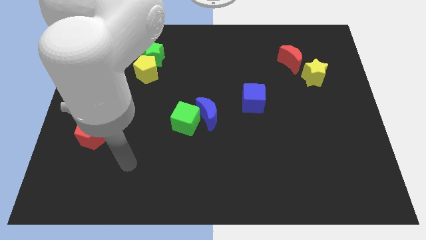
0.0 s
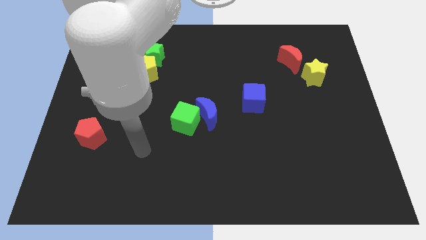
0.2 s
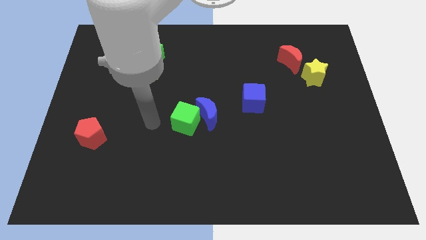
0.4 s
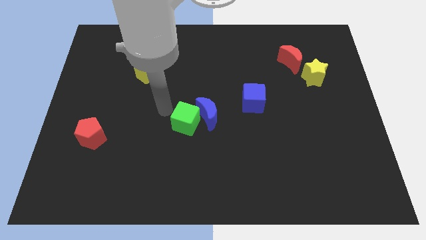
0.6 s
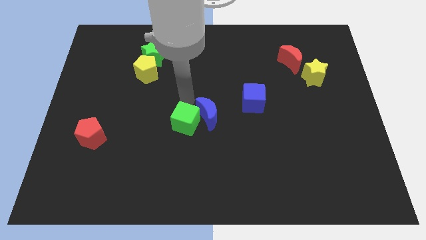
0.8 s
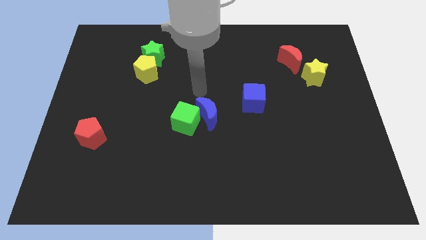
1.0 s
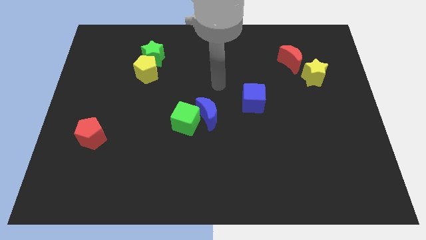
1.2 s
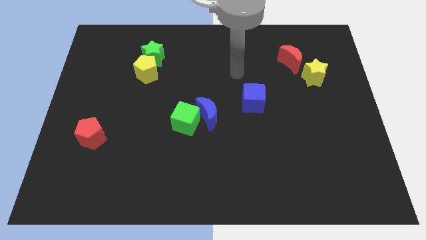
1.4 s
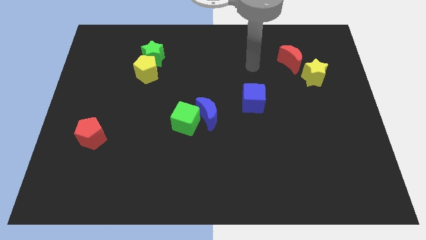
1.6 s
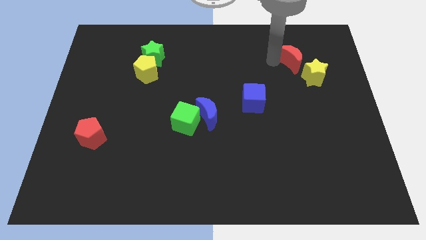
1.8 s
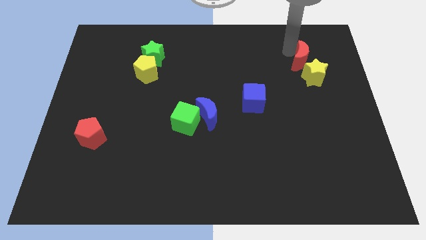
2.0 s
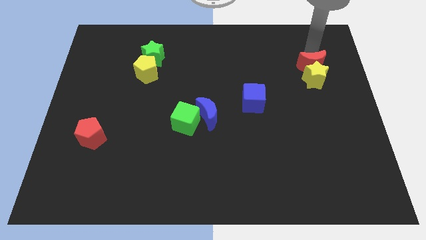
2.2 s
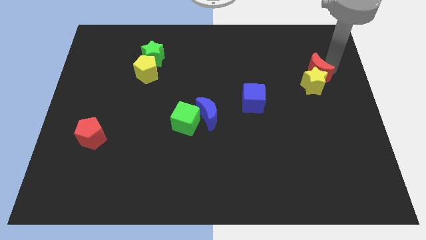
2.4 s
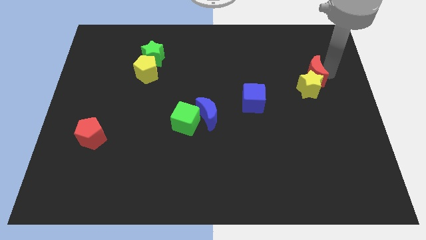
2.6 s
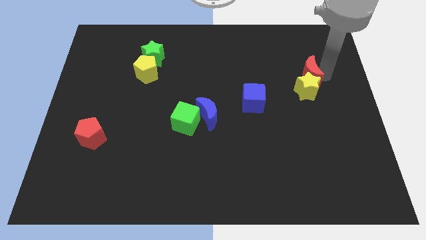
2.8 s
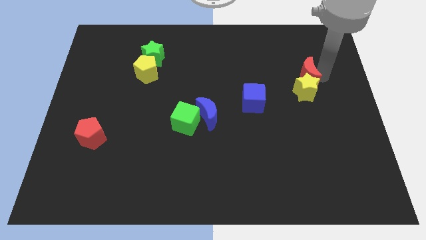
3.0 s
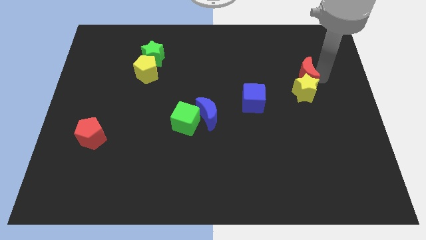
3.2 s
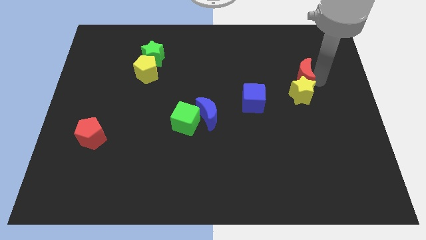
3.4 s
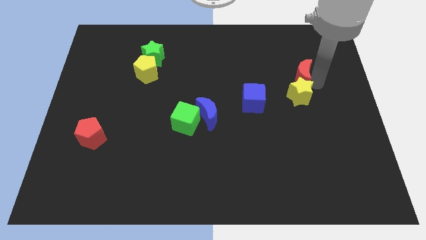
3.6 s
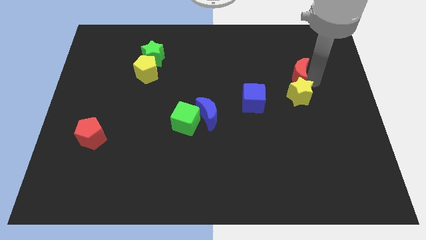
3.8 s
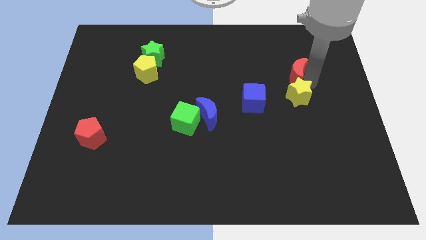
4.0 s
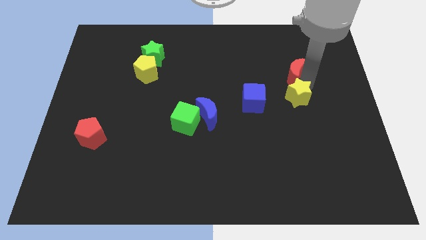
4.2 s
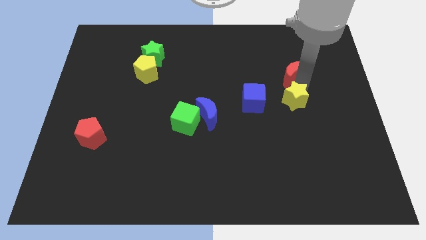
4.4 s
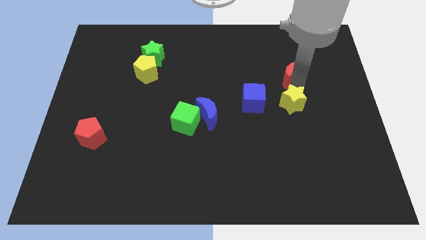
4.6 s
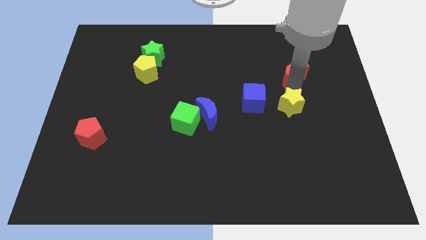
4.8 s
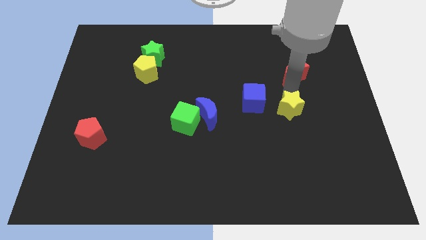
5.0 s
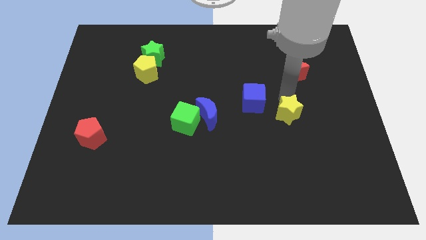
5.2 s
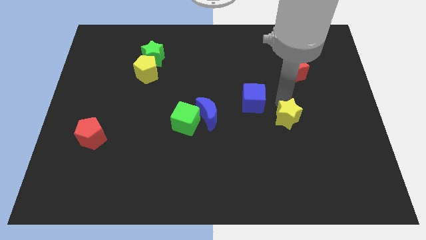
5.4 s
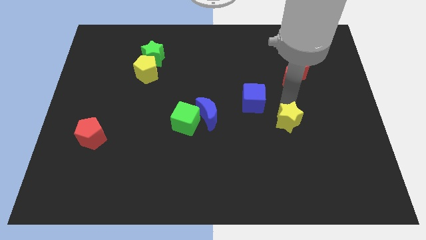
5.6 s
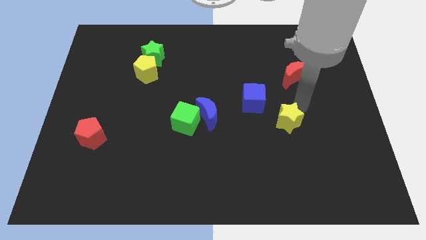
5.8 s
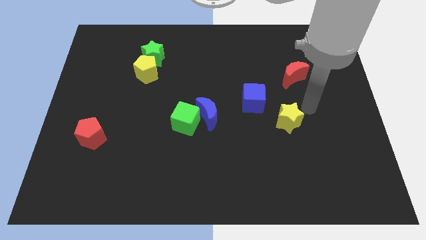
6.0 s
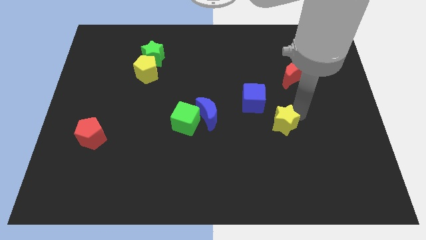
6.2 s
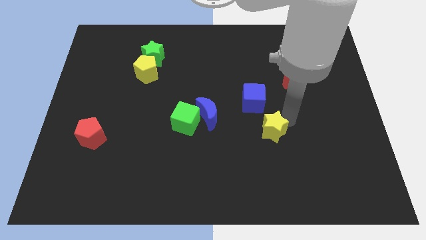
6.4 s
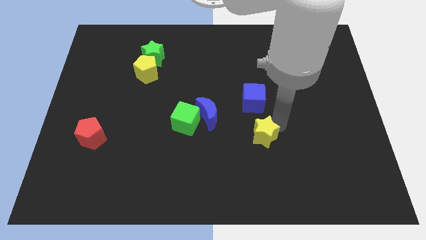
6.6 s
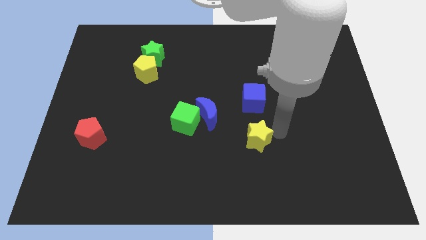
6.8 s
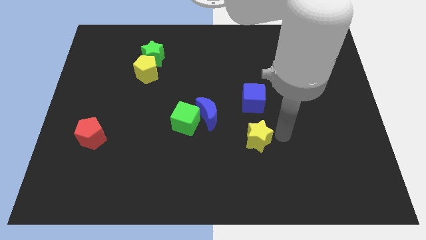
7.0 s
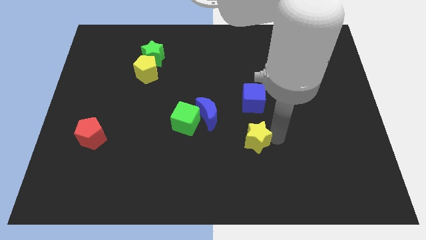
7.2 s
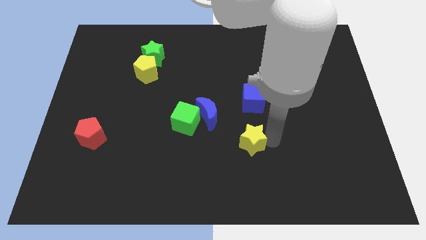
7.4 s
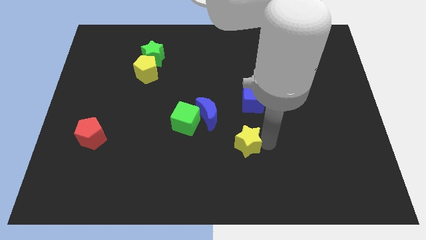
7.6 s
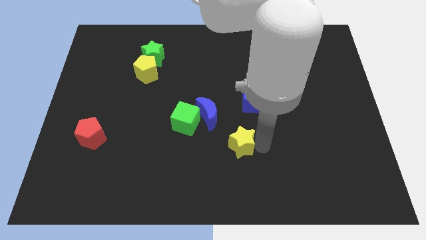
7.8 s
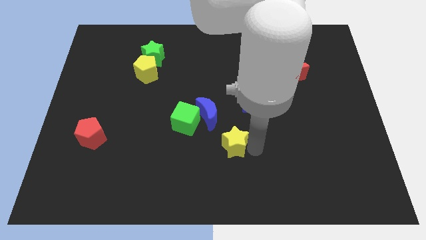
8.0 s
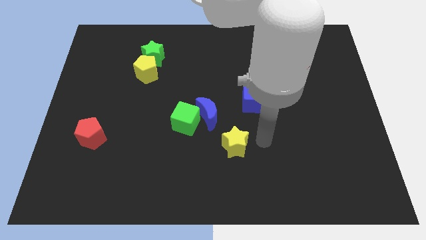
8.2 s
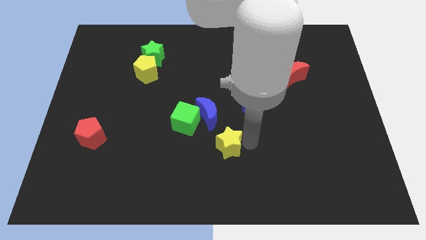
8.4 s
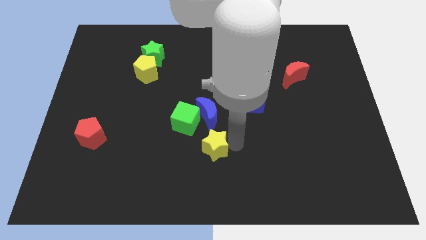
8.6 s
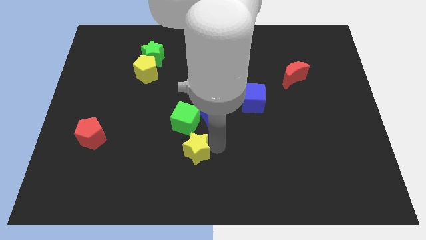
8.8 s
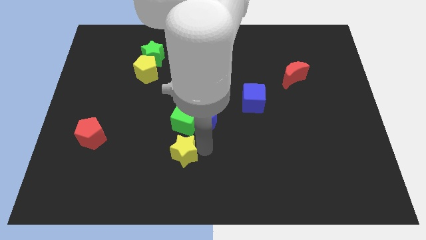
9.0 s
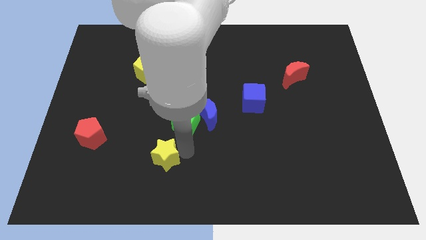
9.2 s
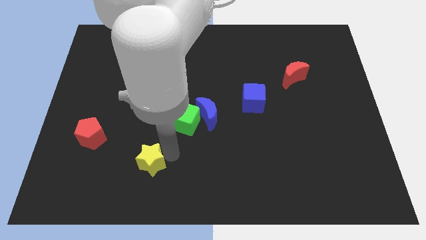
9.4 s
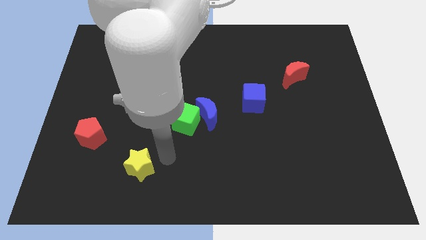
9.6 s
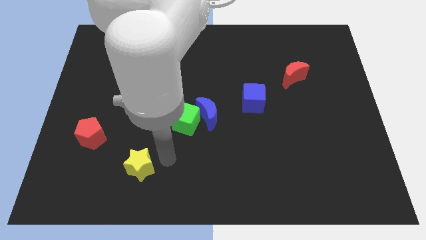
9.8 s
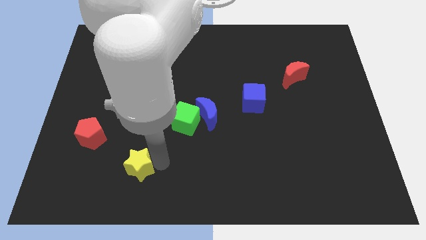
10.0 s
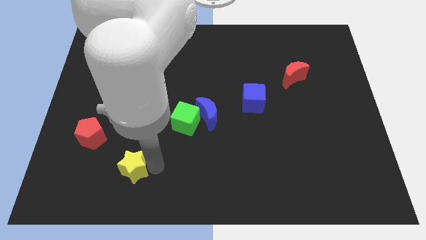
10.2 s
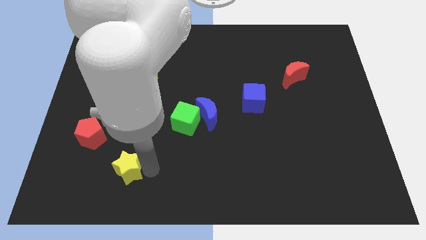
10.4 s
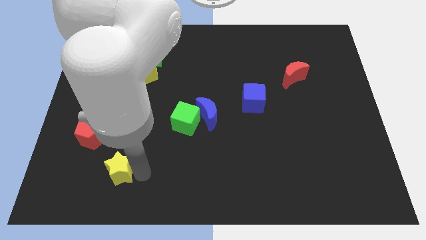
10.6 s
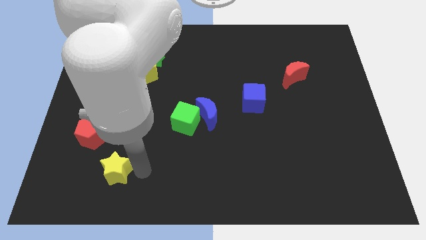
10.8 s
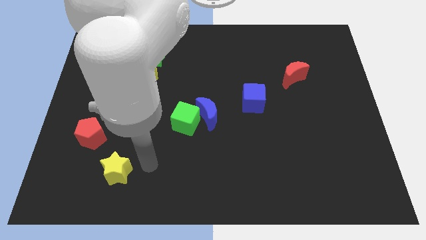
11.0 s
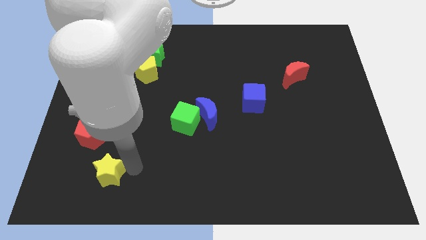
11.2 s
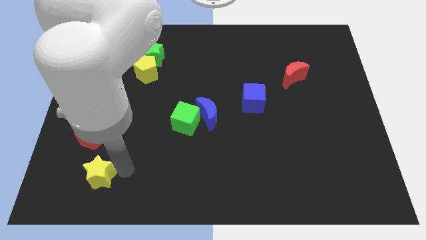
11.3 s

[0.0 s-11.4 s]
push the yellow star to the bottom side of the red pentagon

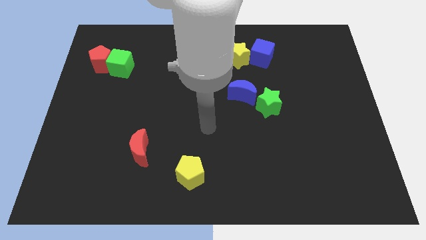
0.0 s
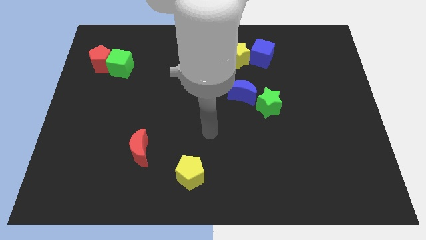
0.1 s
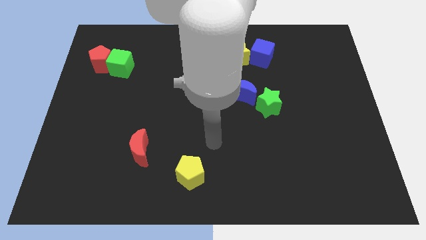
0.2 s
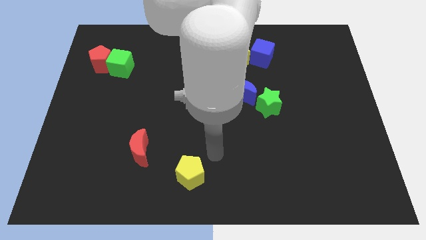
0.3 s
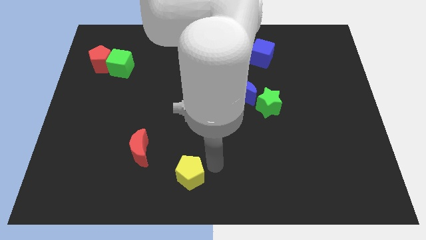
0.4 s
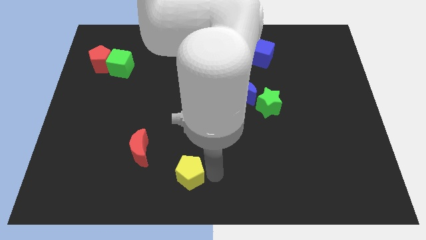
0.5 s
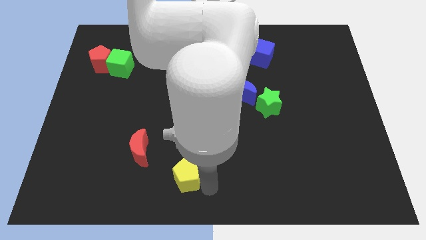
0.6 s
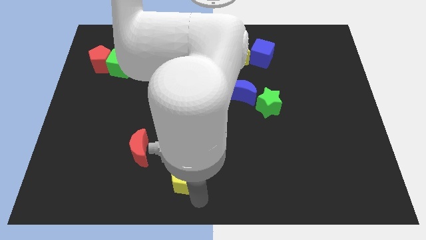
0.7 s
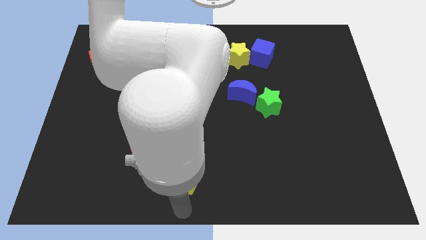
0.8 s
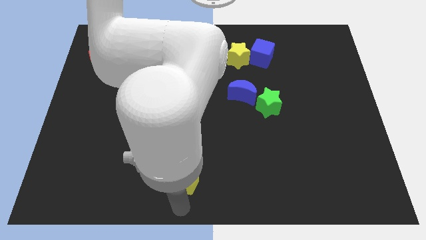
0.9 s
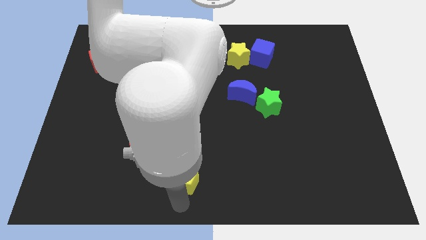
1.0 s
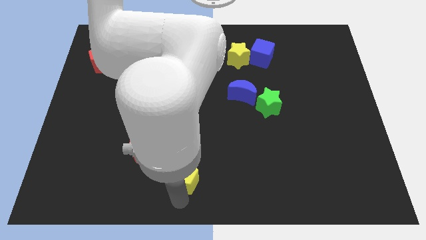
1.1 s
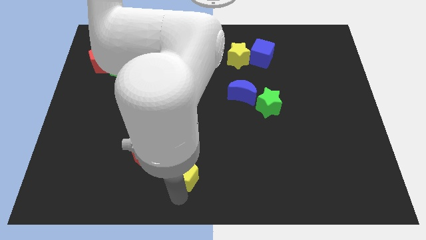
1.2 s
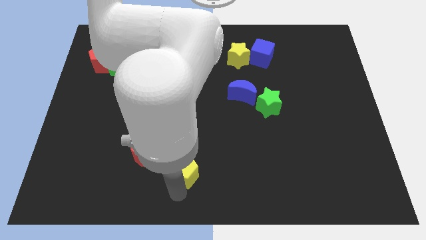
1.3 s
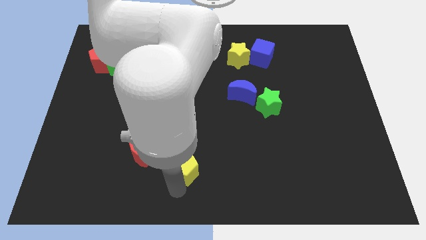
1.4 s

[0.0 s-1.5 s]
push the yellow pentagon just right of the red moon
